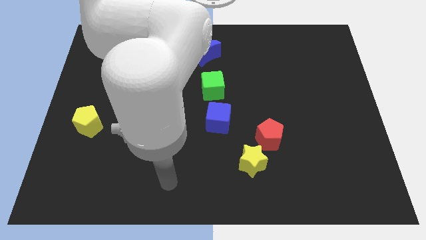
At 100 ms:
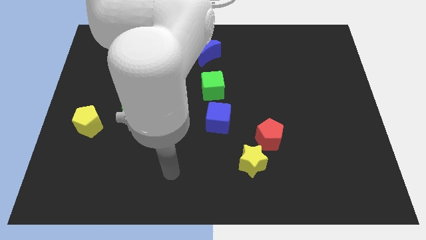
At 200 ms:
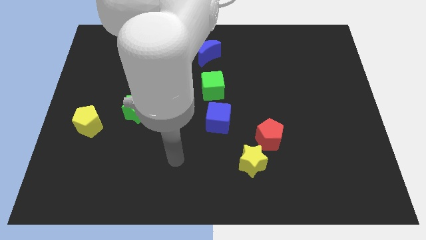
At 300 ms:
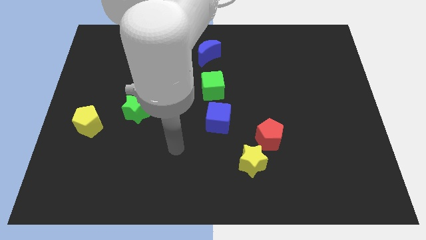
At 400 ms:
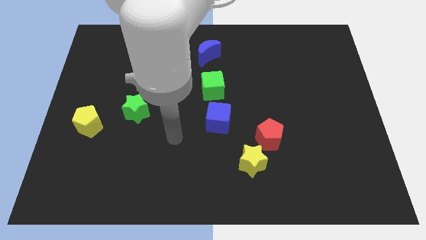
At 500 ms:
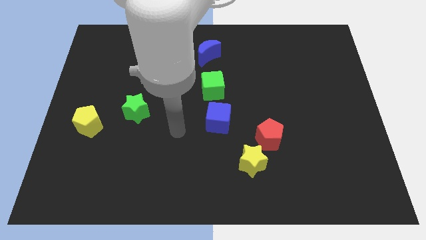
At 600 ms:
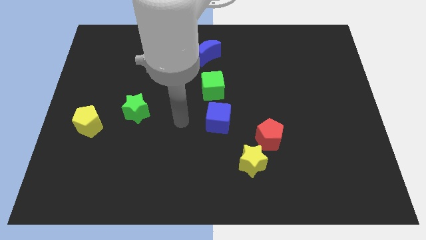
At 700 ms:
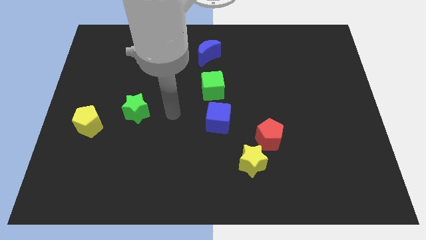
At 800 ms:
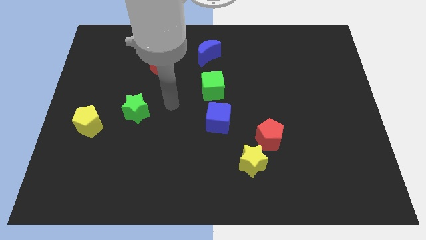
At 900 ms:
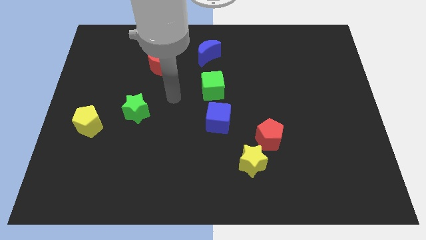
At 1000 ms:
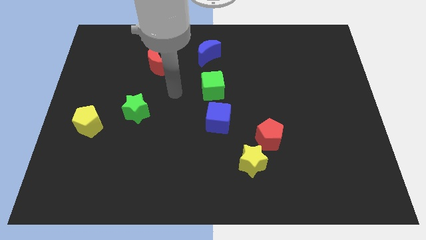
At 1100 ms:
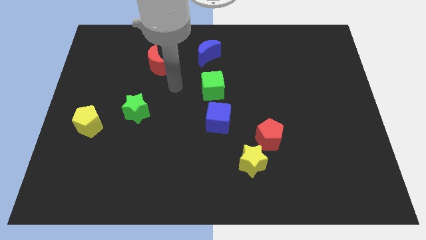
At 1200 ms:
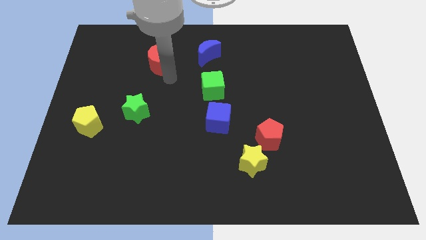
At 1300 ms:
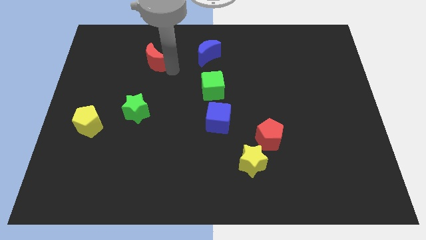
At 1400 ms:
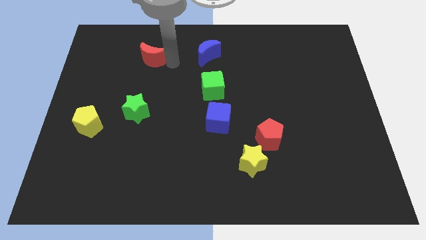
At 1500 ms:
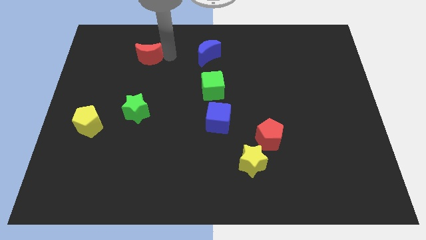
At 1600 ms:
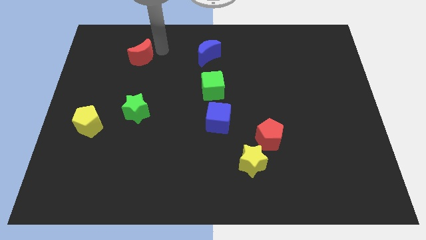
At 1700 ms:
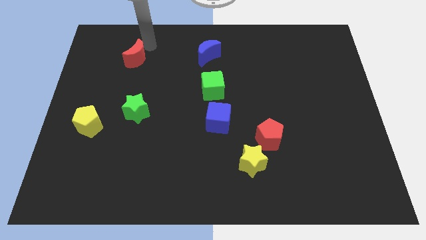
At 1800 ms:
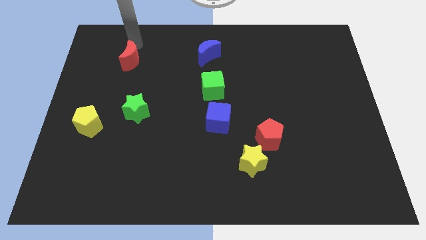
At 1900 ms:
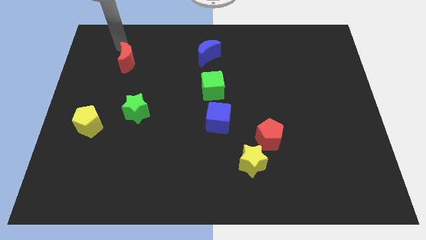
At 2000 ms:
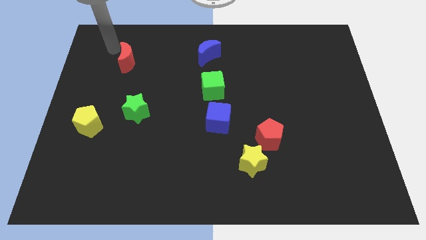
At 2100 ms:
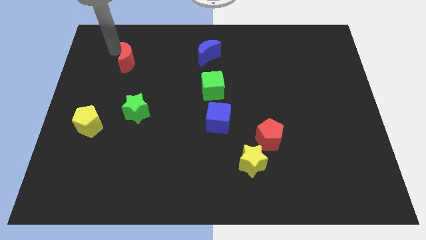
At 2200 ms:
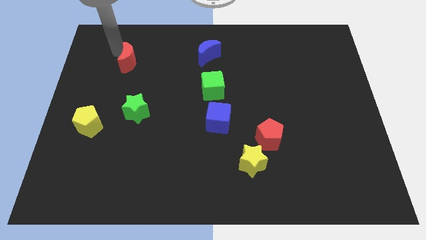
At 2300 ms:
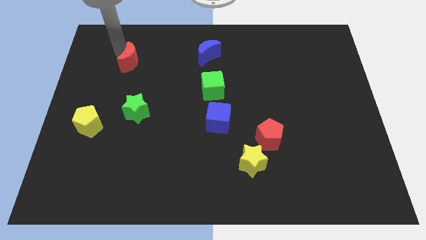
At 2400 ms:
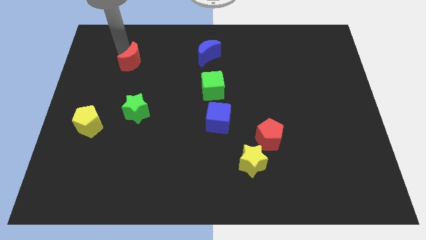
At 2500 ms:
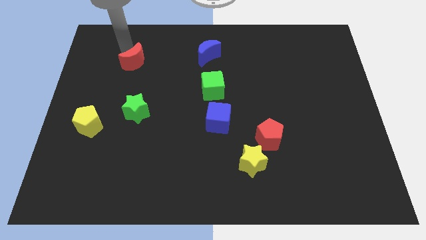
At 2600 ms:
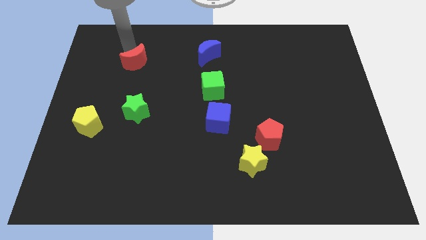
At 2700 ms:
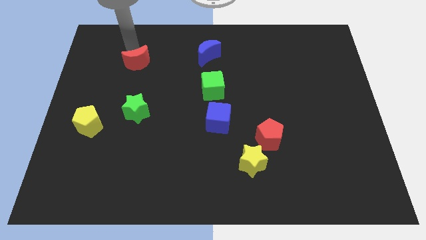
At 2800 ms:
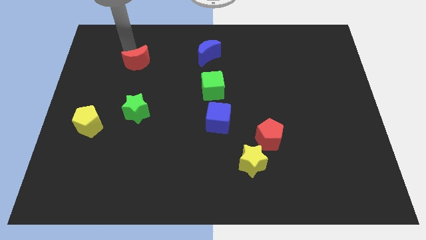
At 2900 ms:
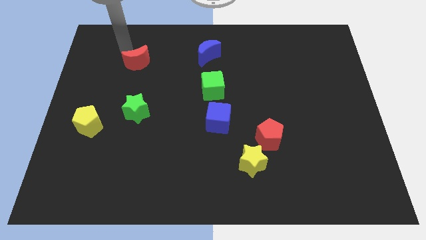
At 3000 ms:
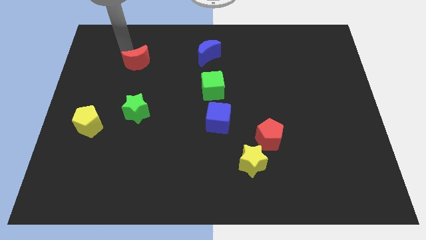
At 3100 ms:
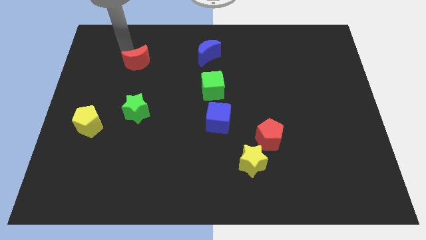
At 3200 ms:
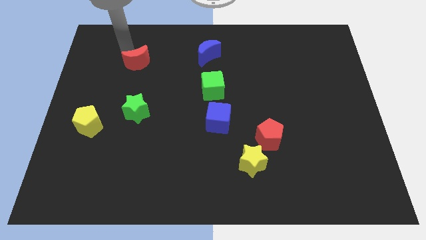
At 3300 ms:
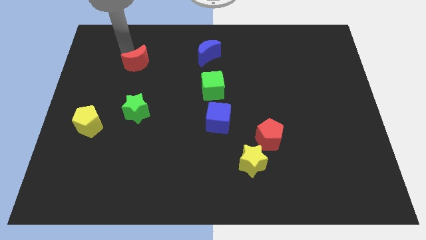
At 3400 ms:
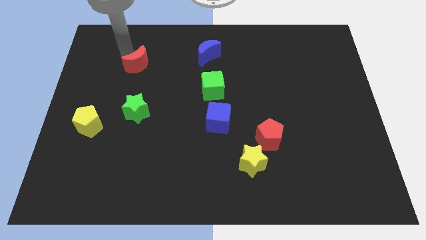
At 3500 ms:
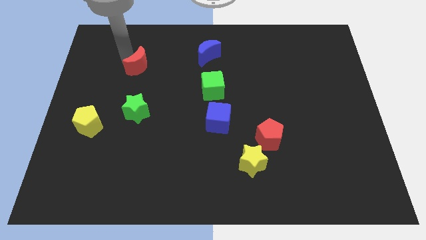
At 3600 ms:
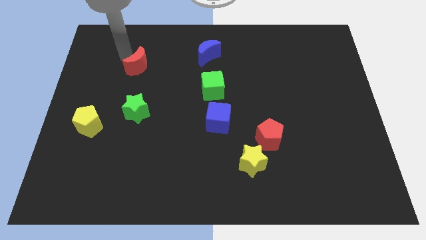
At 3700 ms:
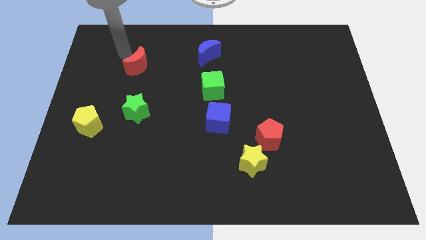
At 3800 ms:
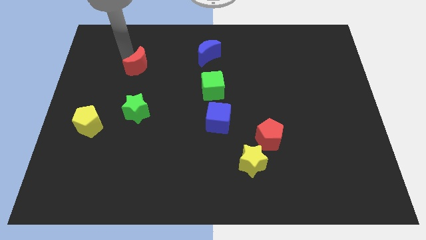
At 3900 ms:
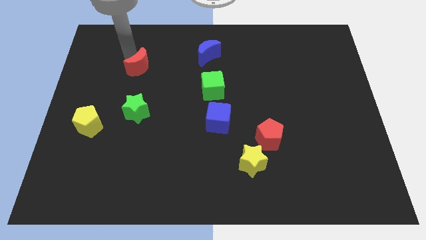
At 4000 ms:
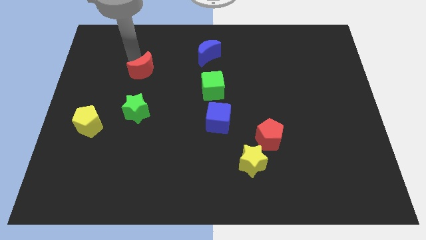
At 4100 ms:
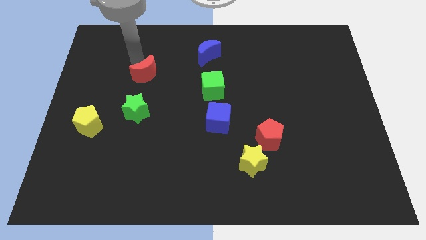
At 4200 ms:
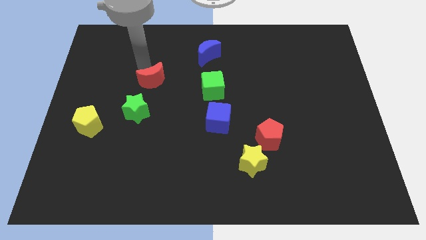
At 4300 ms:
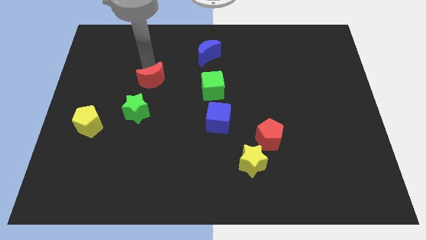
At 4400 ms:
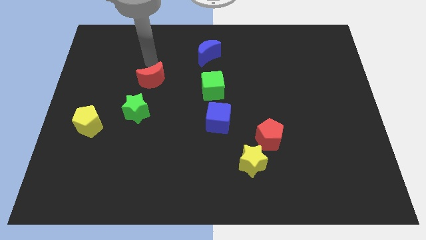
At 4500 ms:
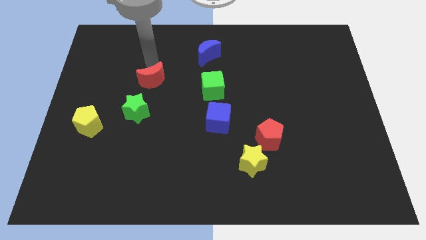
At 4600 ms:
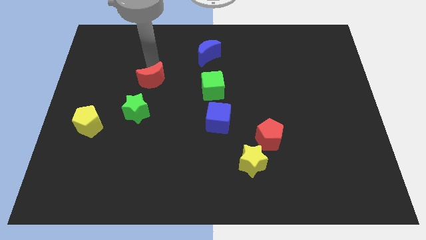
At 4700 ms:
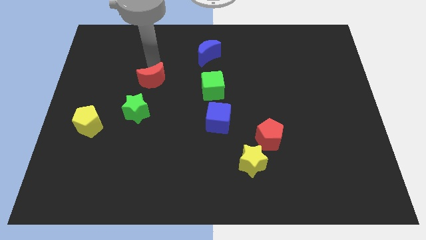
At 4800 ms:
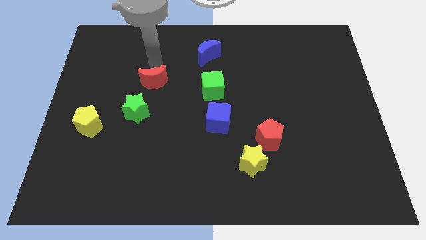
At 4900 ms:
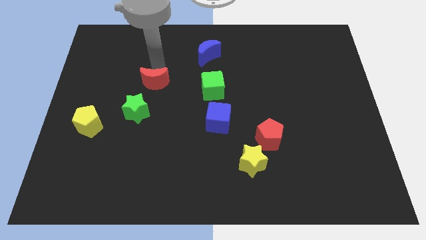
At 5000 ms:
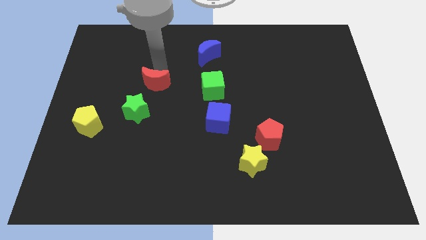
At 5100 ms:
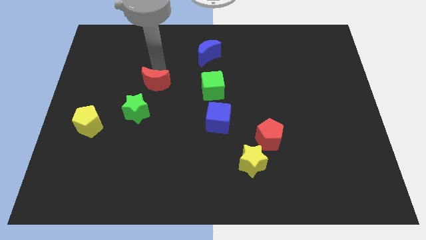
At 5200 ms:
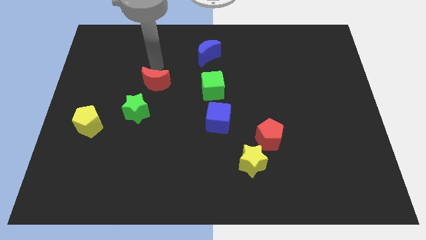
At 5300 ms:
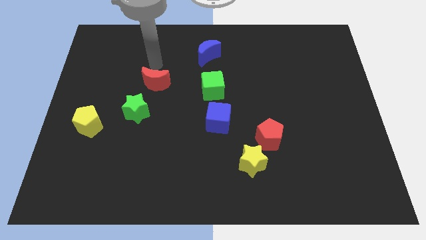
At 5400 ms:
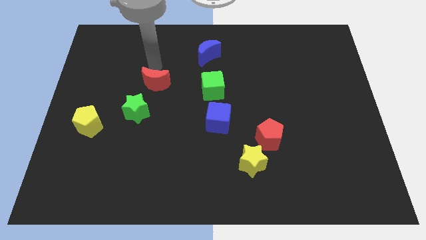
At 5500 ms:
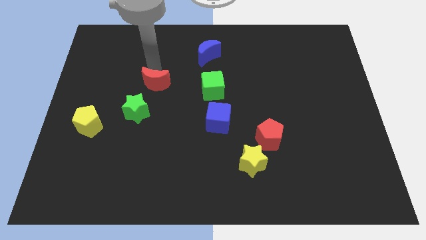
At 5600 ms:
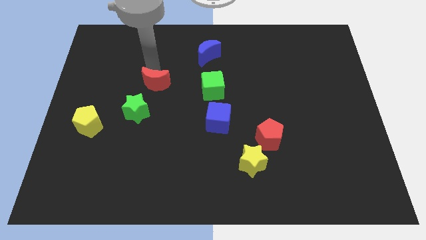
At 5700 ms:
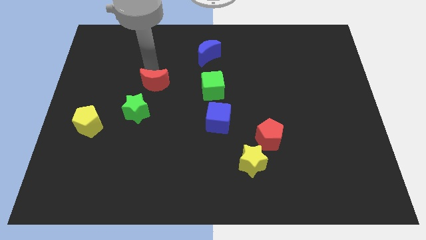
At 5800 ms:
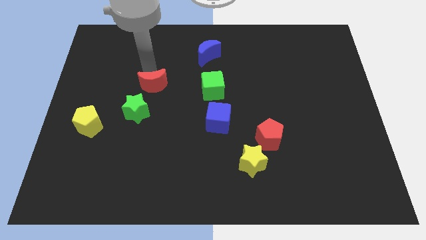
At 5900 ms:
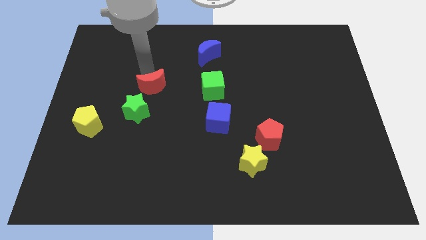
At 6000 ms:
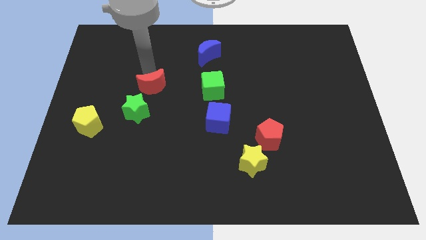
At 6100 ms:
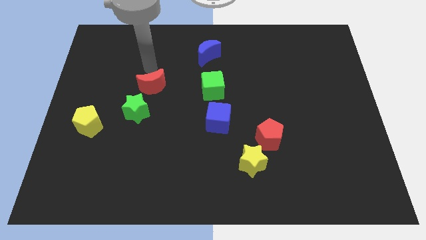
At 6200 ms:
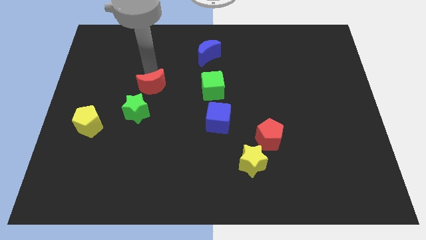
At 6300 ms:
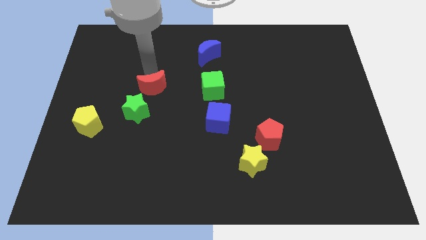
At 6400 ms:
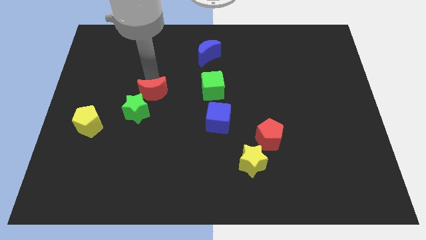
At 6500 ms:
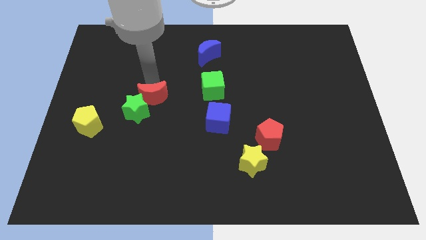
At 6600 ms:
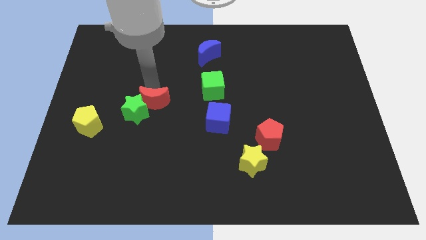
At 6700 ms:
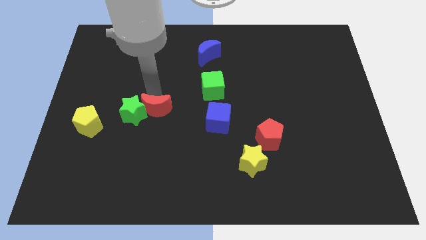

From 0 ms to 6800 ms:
put the red moon to the bottom right side of the green star

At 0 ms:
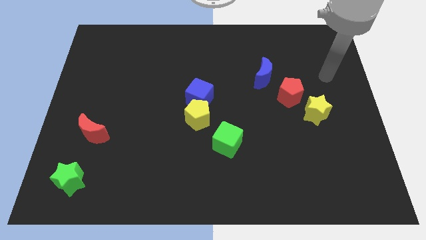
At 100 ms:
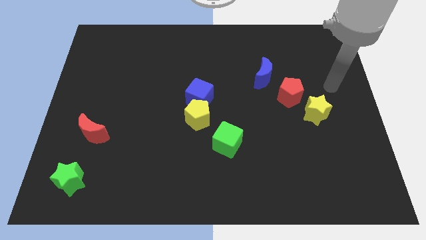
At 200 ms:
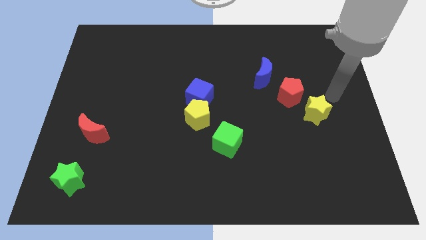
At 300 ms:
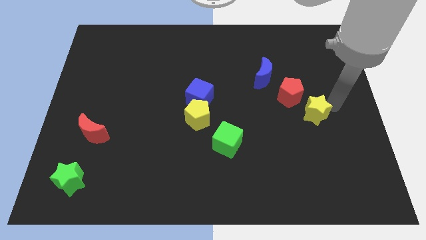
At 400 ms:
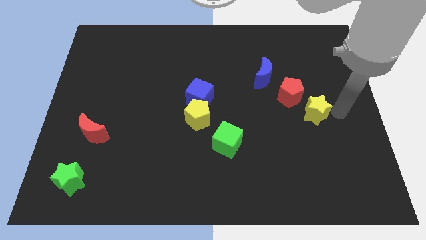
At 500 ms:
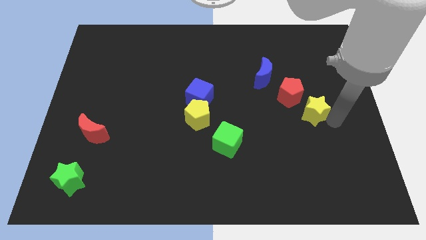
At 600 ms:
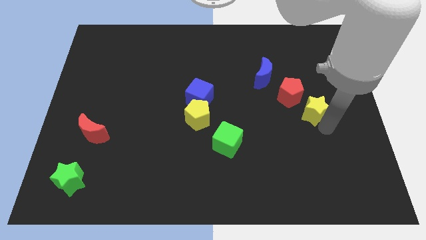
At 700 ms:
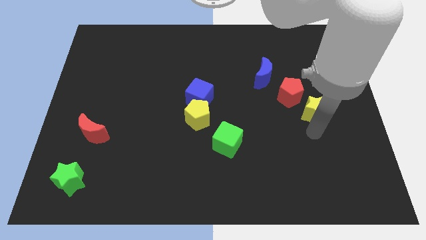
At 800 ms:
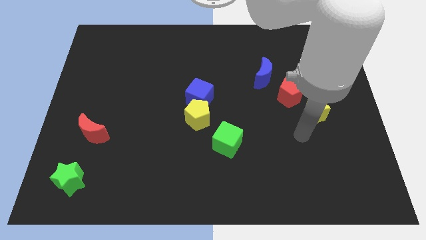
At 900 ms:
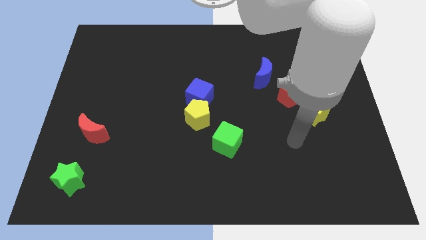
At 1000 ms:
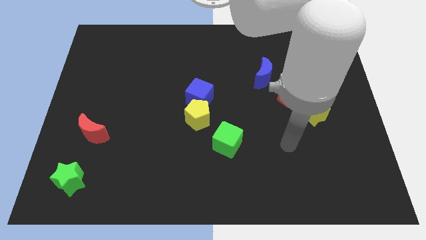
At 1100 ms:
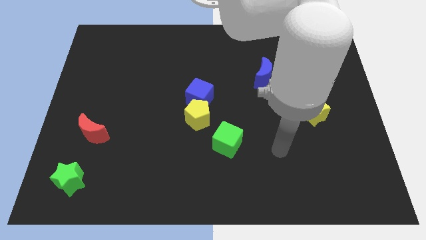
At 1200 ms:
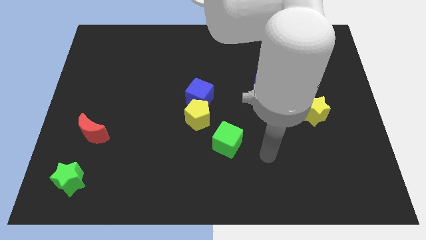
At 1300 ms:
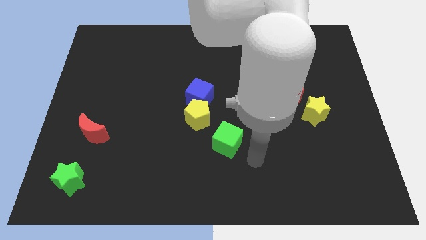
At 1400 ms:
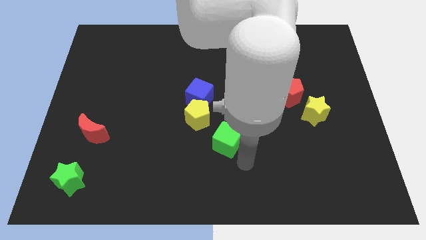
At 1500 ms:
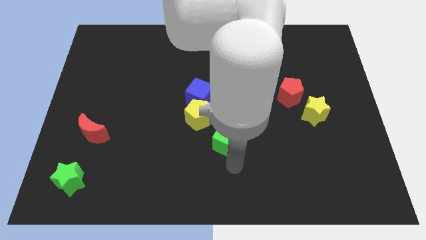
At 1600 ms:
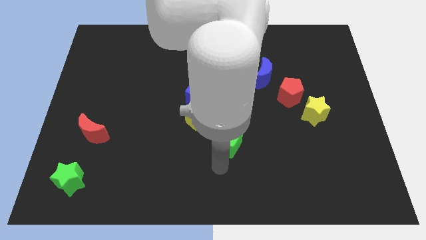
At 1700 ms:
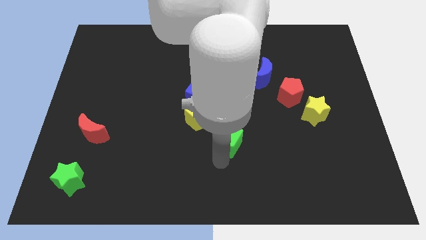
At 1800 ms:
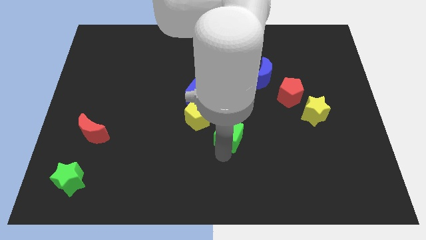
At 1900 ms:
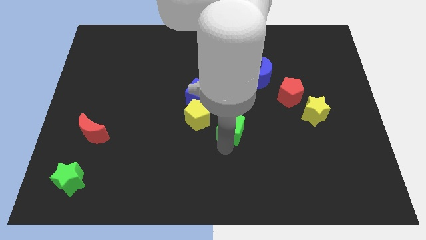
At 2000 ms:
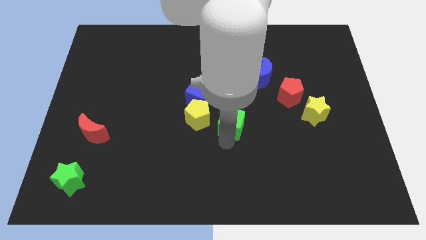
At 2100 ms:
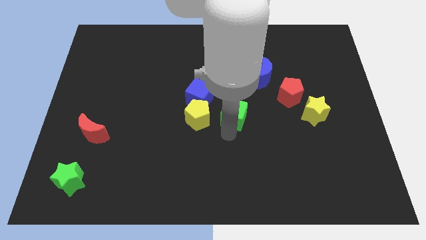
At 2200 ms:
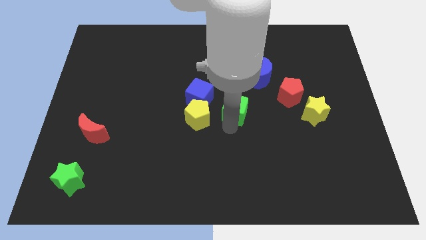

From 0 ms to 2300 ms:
put the green cube to the right of the blue cube
